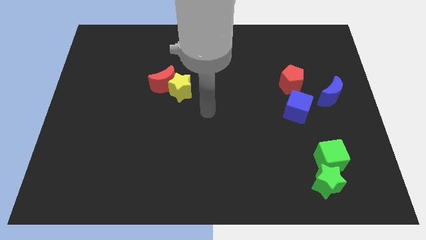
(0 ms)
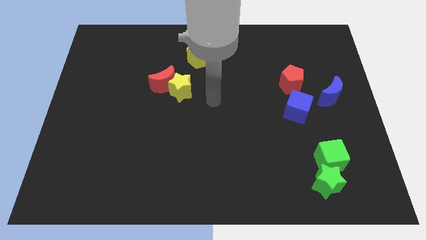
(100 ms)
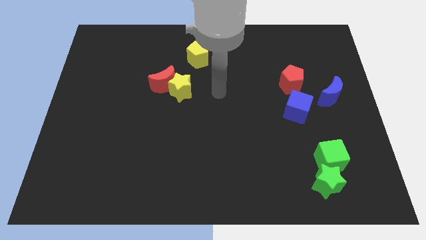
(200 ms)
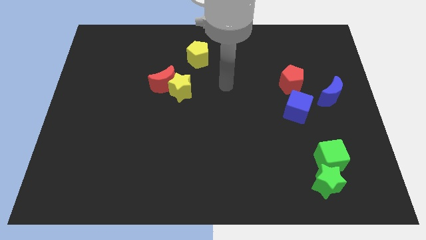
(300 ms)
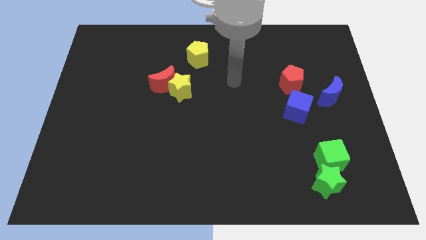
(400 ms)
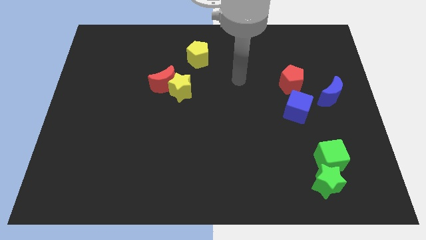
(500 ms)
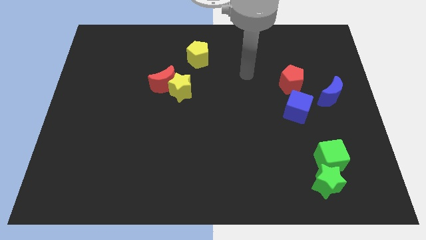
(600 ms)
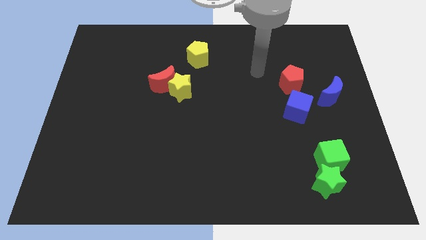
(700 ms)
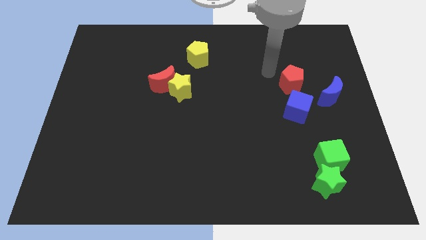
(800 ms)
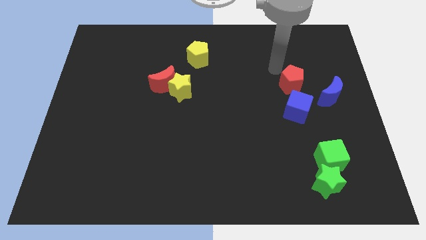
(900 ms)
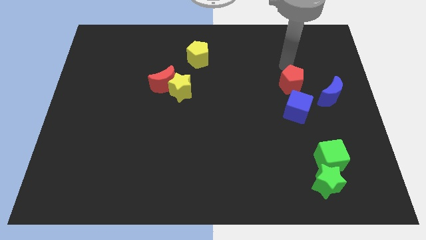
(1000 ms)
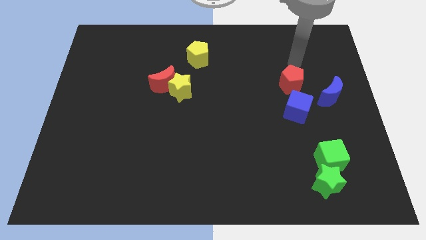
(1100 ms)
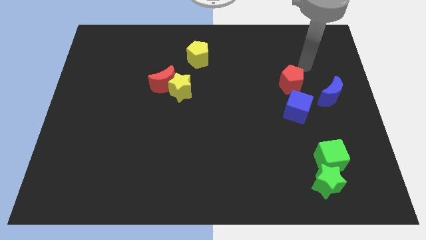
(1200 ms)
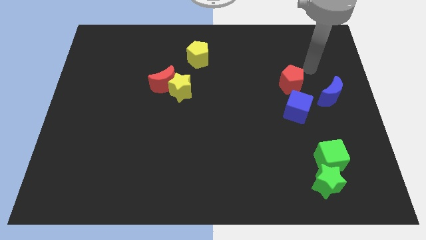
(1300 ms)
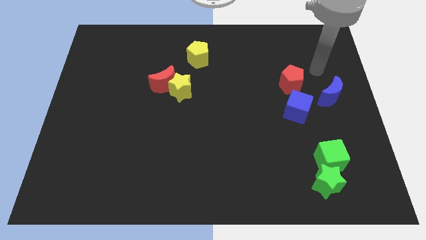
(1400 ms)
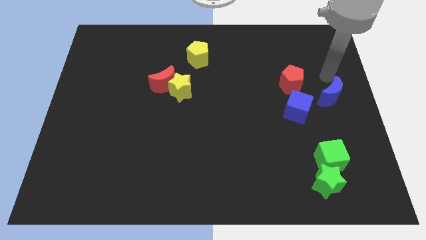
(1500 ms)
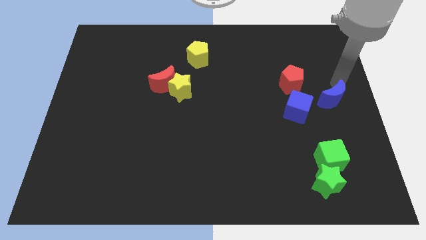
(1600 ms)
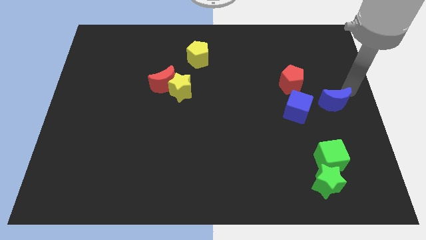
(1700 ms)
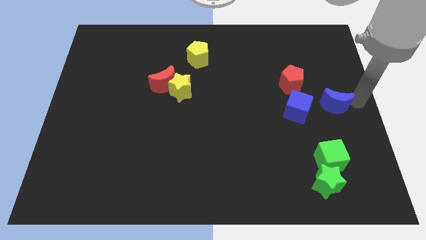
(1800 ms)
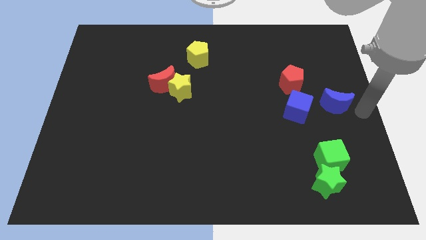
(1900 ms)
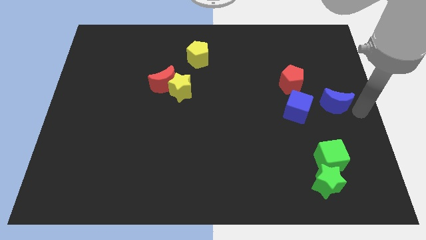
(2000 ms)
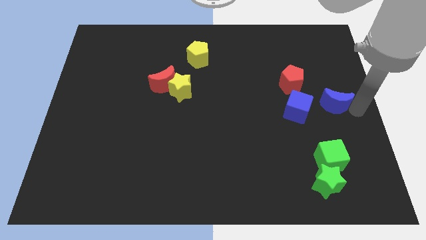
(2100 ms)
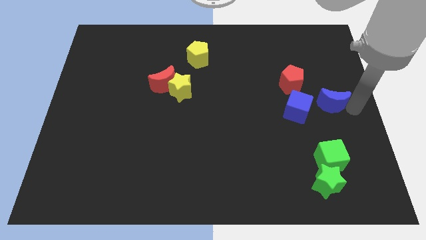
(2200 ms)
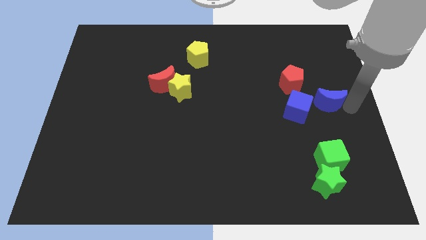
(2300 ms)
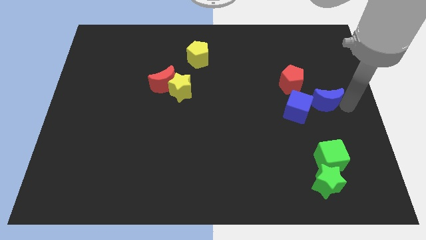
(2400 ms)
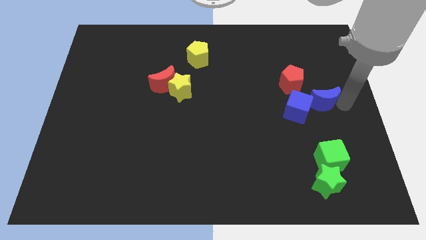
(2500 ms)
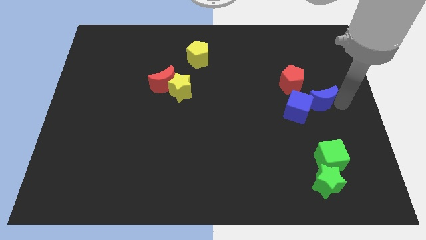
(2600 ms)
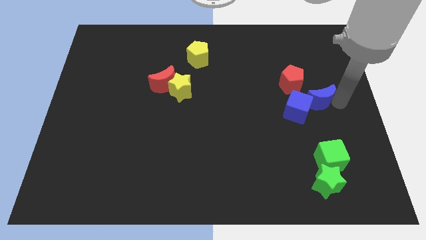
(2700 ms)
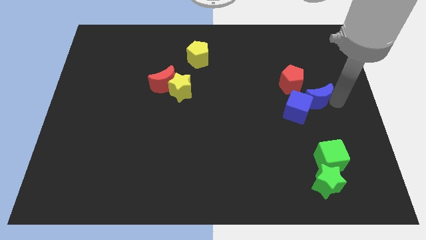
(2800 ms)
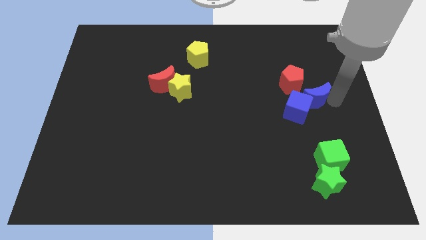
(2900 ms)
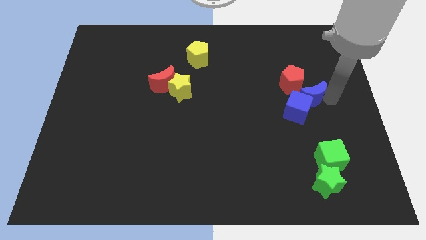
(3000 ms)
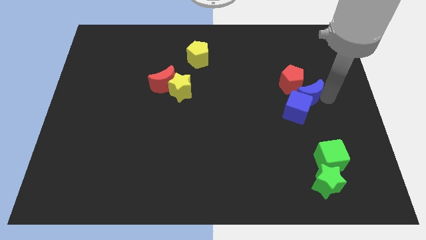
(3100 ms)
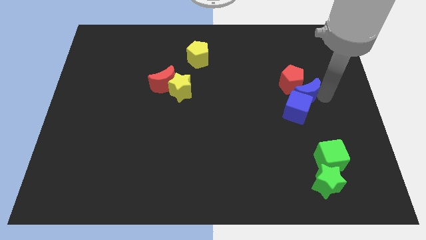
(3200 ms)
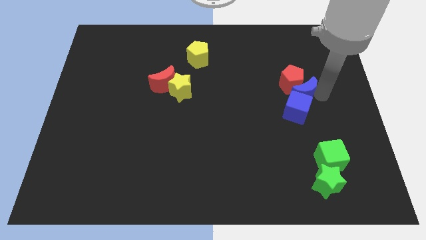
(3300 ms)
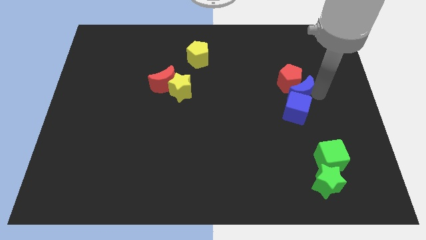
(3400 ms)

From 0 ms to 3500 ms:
slightly push the blue moon to the left

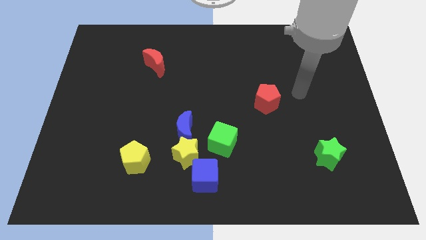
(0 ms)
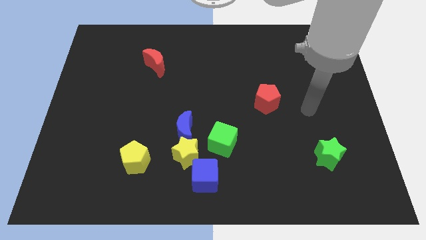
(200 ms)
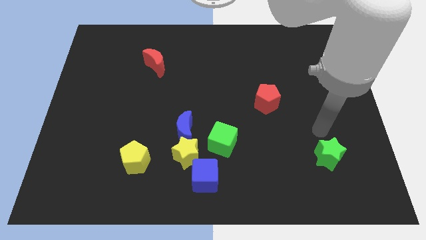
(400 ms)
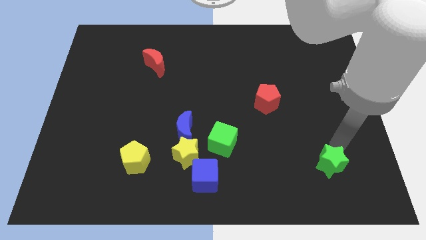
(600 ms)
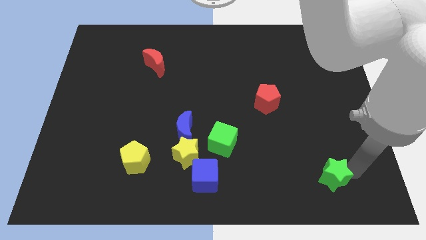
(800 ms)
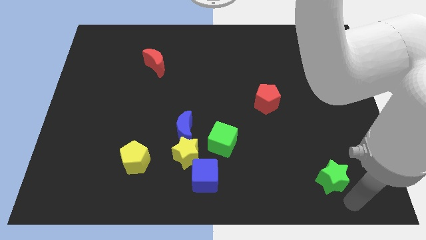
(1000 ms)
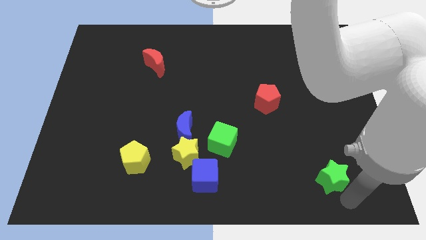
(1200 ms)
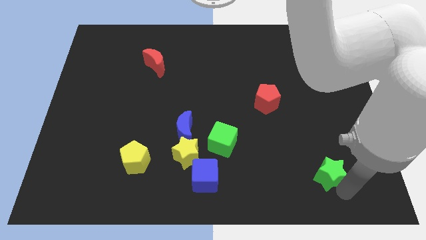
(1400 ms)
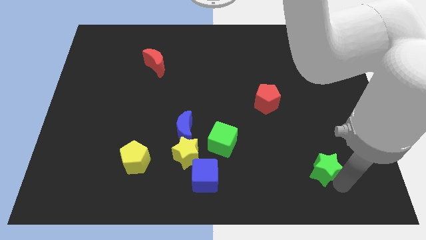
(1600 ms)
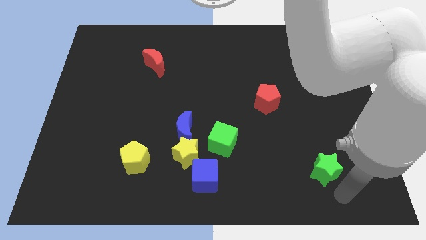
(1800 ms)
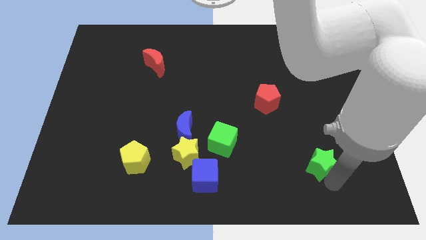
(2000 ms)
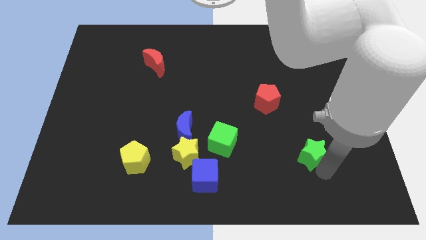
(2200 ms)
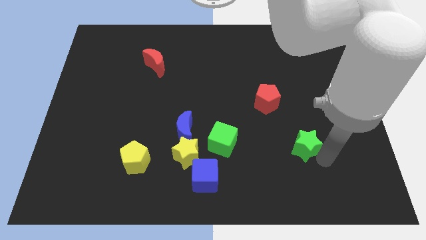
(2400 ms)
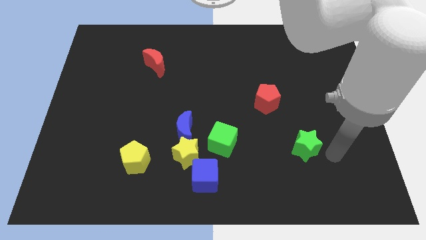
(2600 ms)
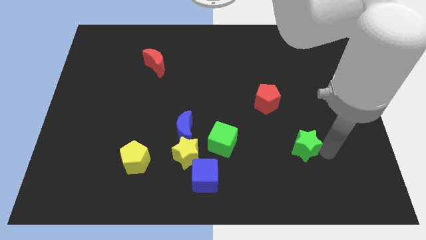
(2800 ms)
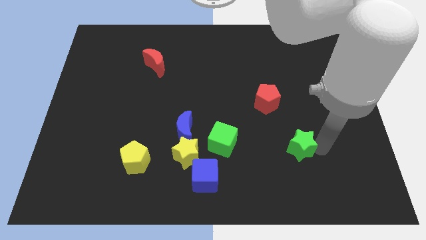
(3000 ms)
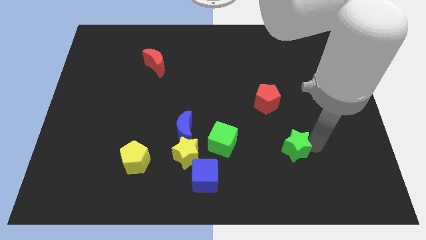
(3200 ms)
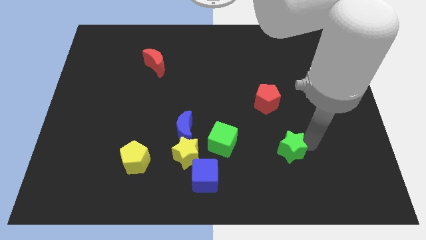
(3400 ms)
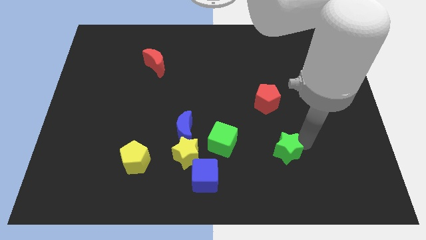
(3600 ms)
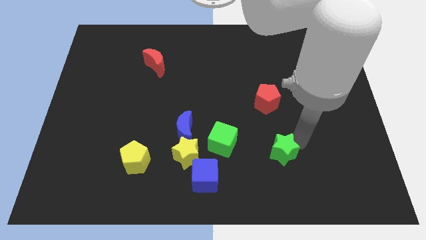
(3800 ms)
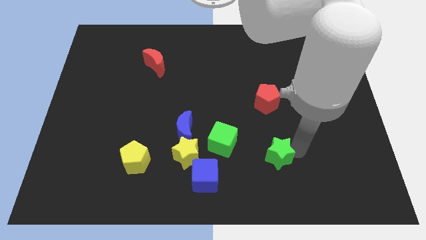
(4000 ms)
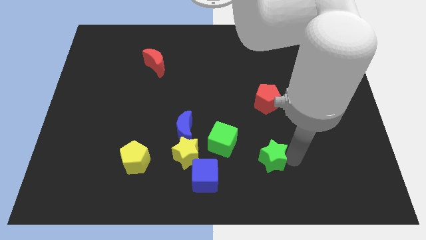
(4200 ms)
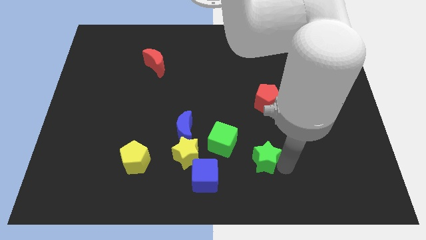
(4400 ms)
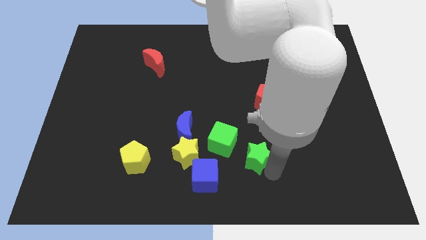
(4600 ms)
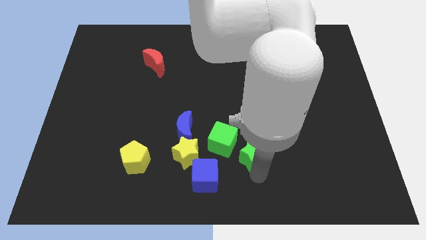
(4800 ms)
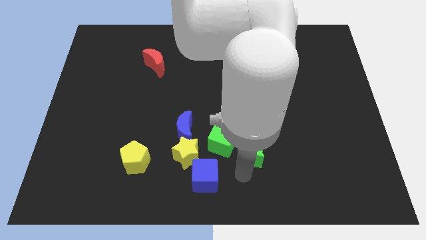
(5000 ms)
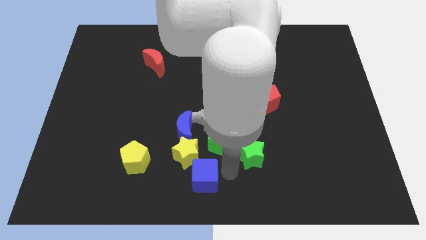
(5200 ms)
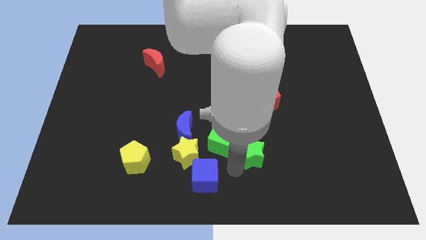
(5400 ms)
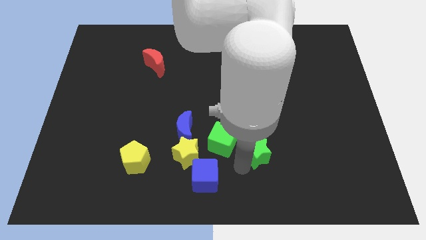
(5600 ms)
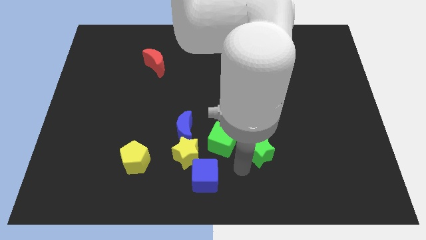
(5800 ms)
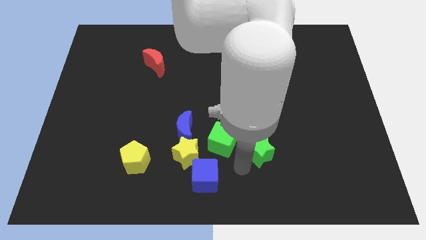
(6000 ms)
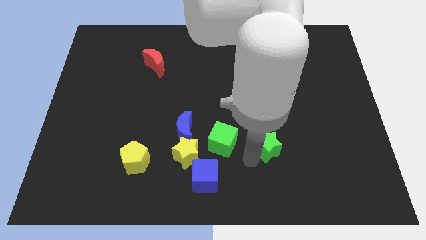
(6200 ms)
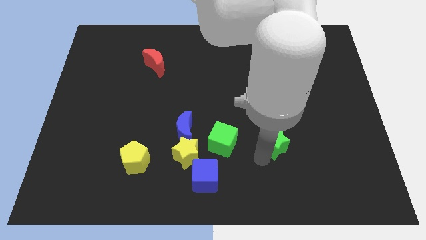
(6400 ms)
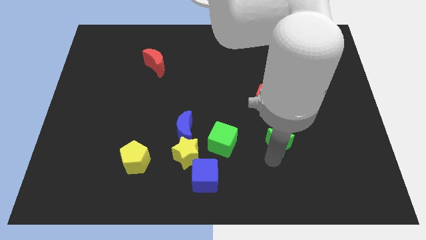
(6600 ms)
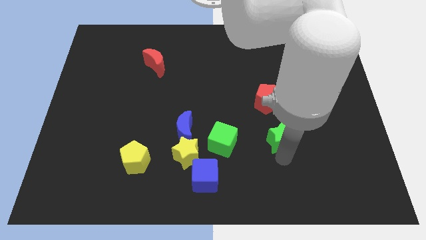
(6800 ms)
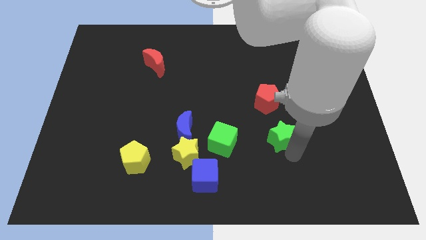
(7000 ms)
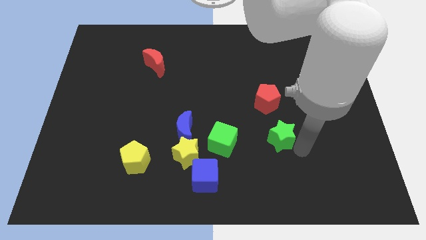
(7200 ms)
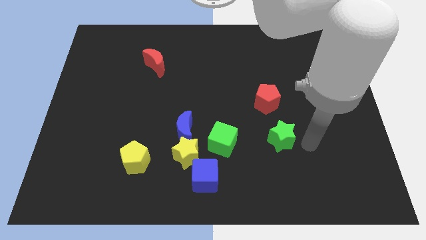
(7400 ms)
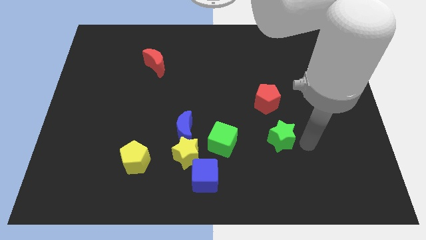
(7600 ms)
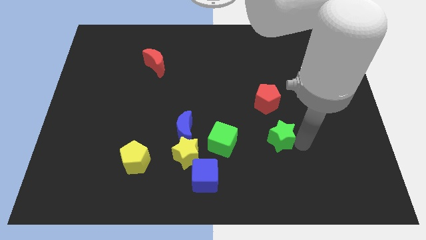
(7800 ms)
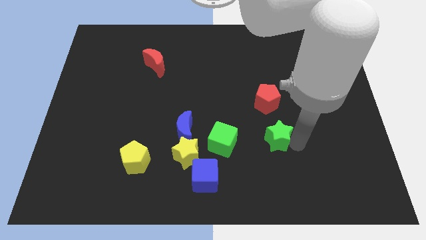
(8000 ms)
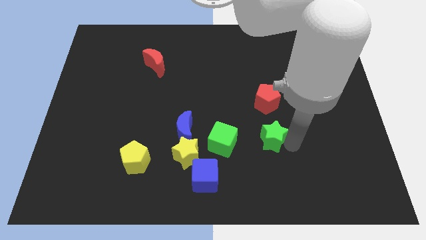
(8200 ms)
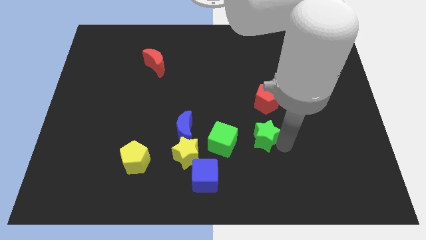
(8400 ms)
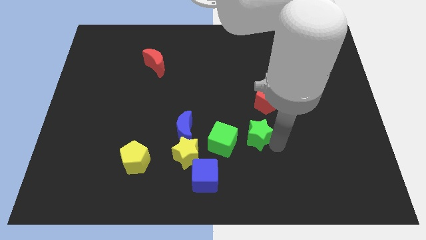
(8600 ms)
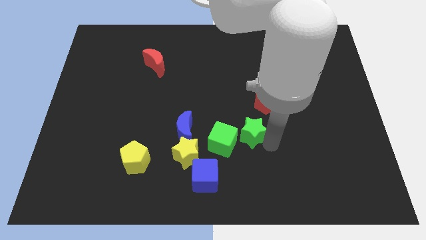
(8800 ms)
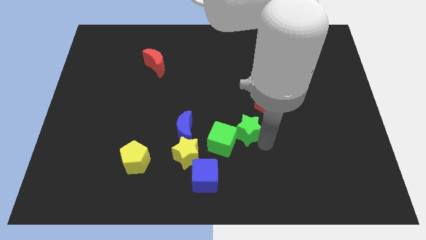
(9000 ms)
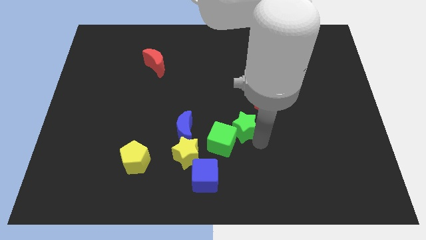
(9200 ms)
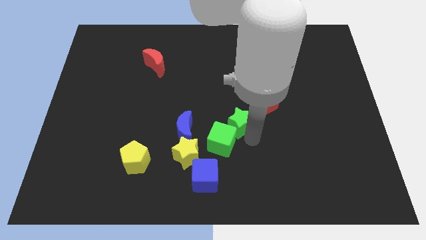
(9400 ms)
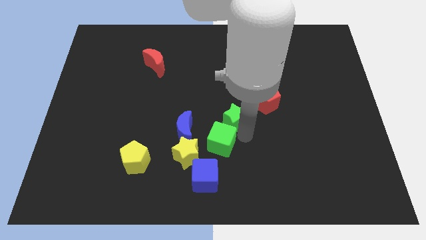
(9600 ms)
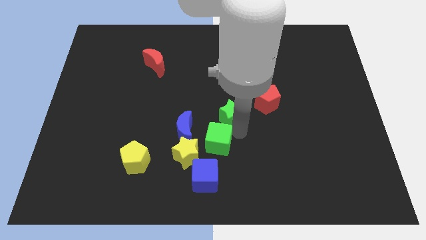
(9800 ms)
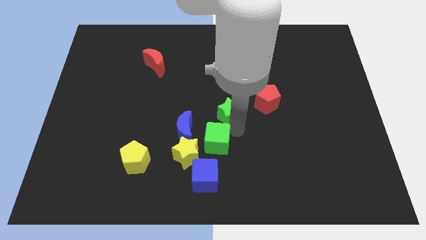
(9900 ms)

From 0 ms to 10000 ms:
push the green star up and left
